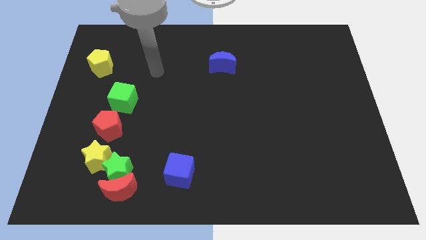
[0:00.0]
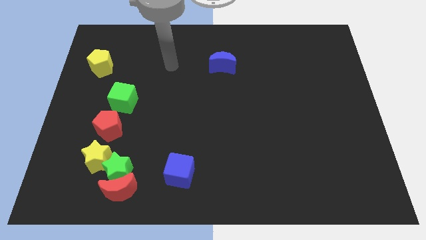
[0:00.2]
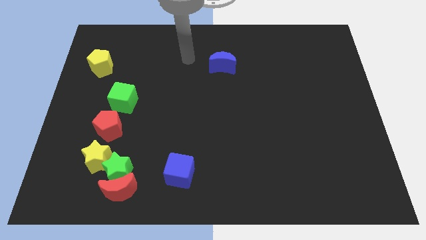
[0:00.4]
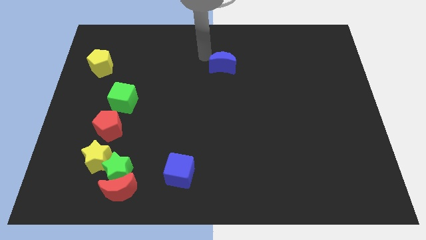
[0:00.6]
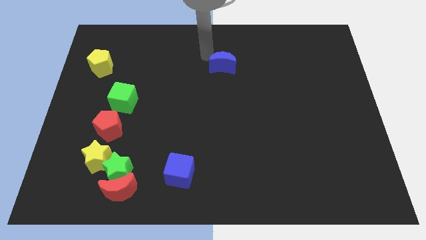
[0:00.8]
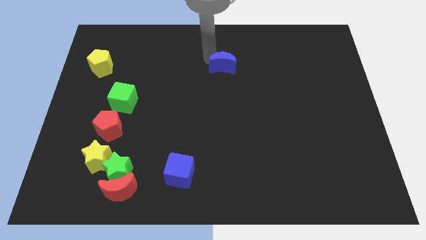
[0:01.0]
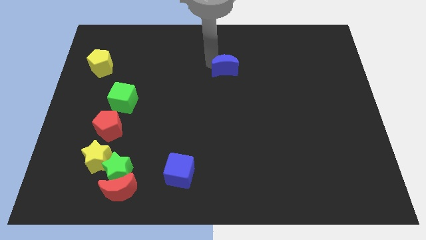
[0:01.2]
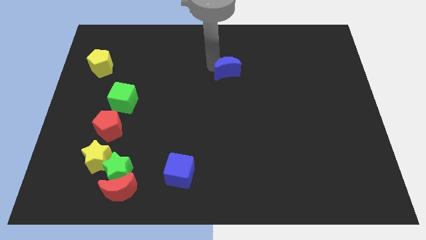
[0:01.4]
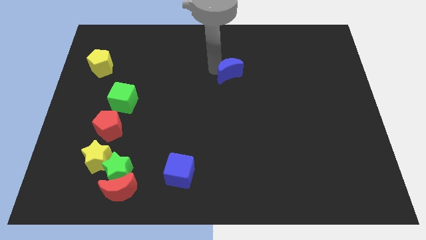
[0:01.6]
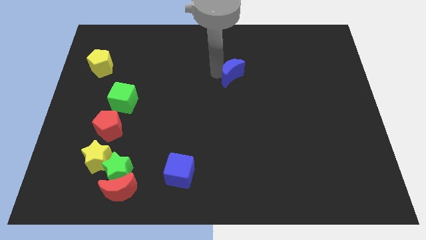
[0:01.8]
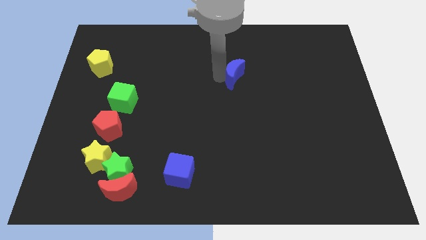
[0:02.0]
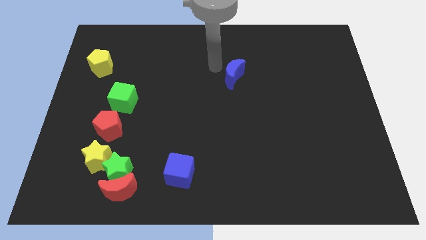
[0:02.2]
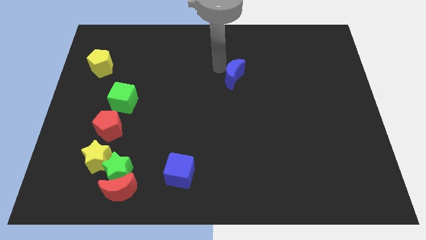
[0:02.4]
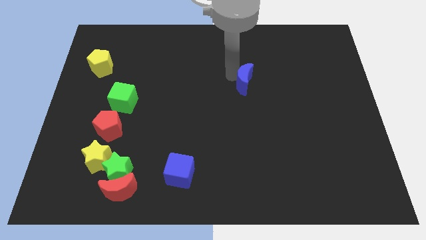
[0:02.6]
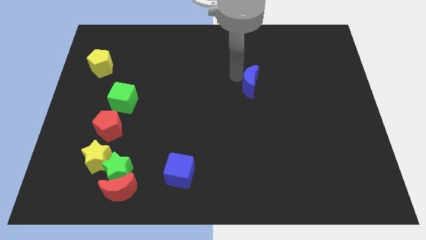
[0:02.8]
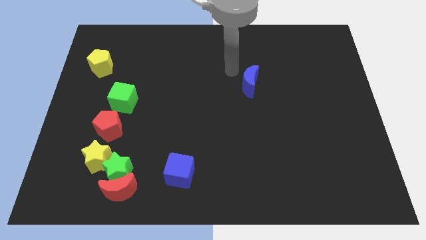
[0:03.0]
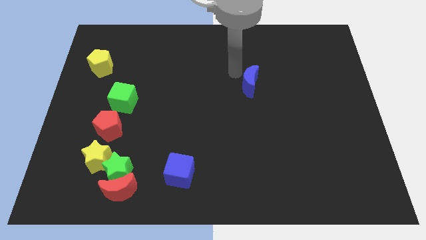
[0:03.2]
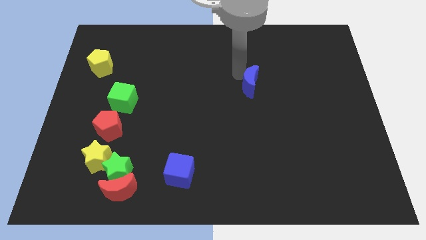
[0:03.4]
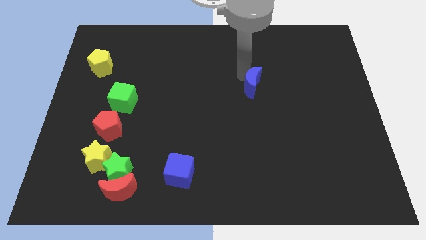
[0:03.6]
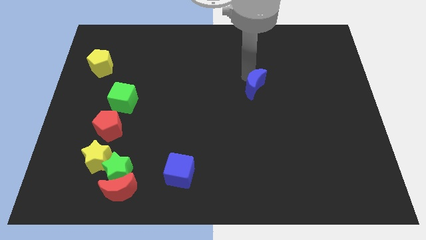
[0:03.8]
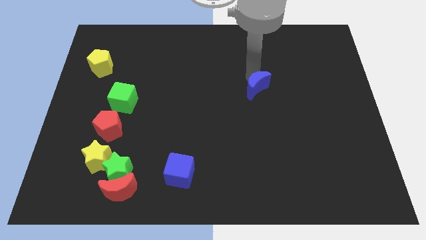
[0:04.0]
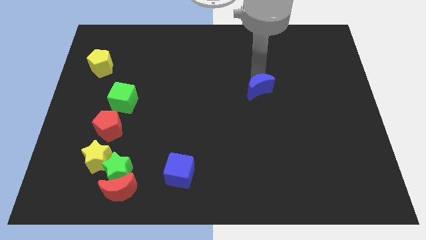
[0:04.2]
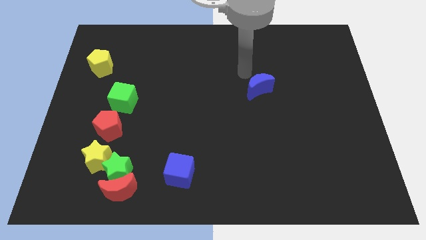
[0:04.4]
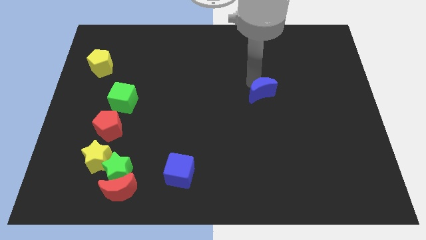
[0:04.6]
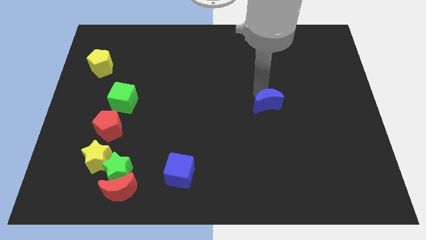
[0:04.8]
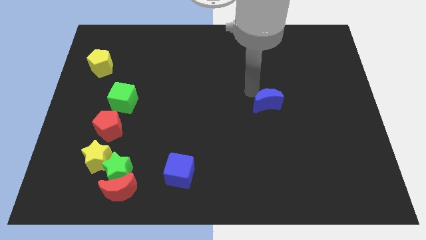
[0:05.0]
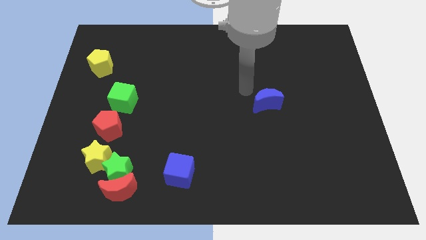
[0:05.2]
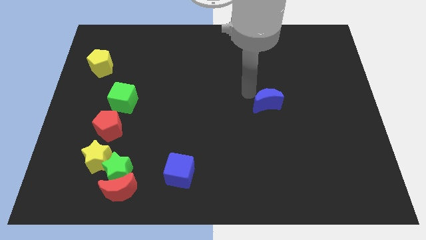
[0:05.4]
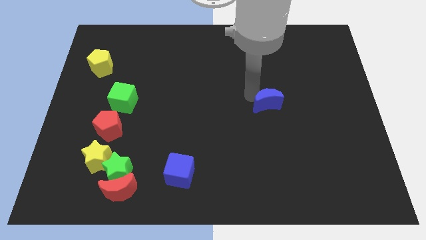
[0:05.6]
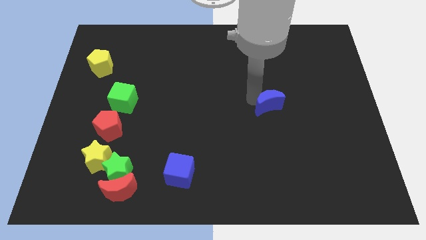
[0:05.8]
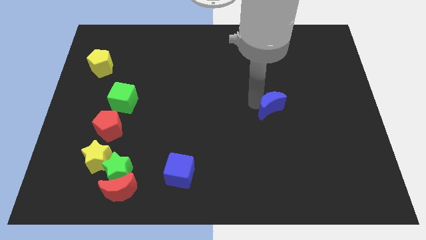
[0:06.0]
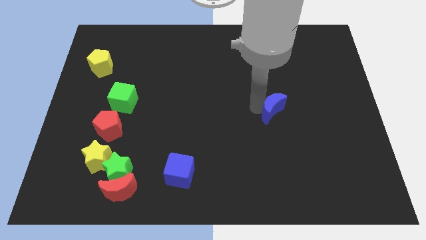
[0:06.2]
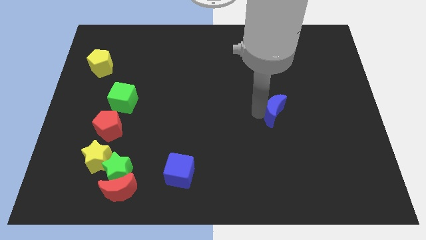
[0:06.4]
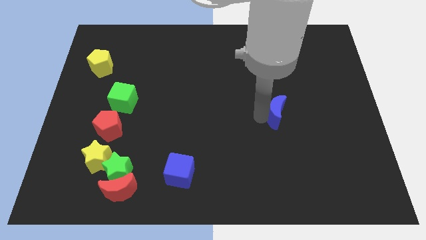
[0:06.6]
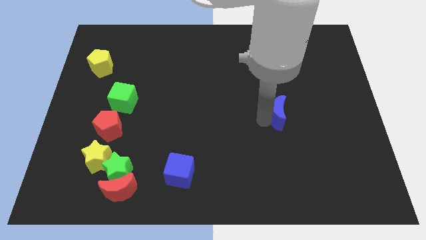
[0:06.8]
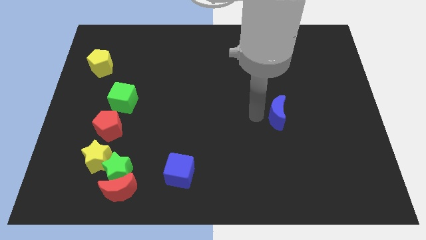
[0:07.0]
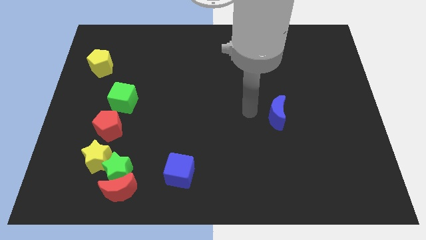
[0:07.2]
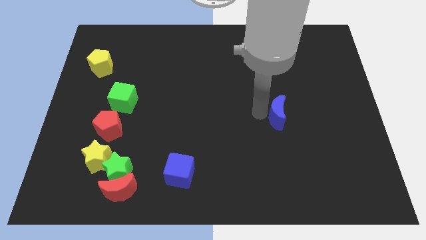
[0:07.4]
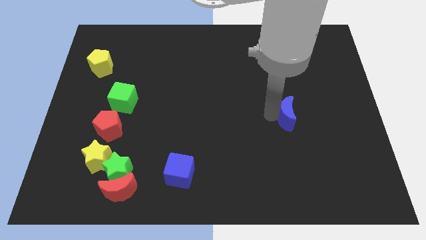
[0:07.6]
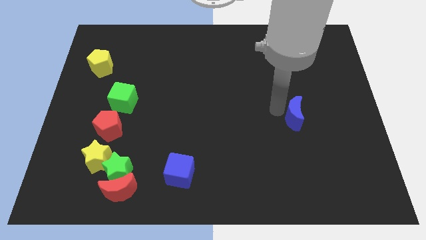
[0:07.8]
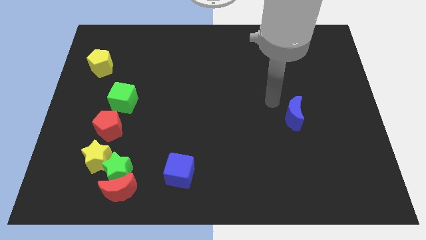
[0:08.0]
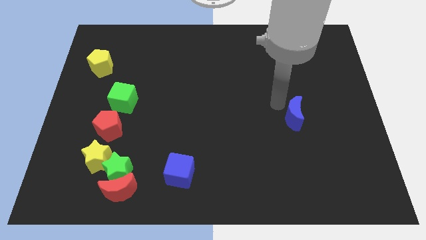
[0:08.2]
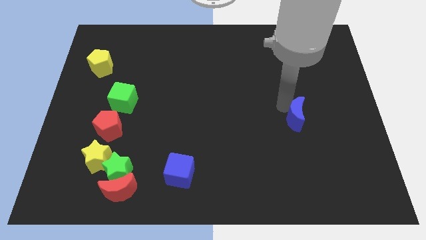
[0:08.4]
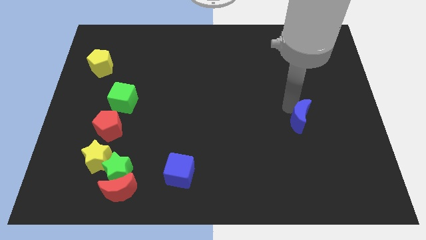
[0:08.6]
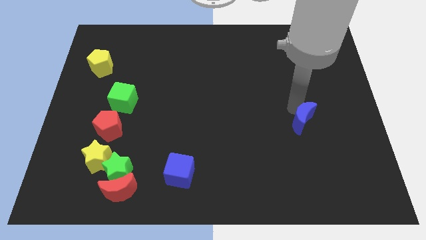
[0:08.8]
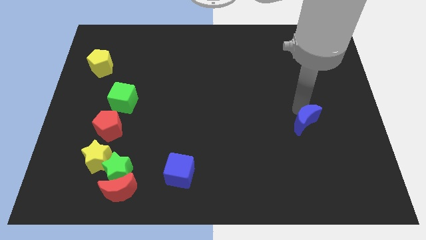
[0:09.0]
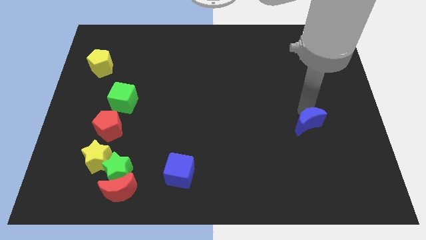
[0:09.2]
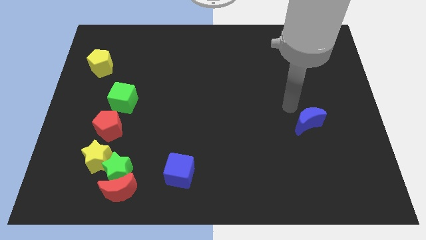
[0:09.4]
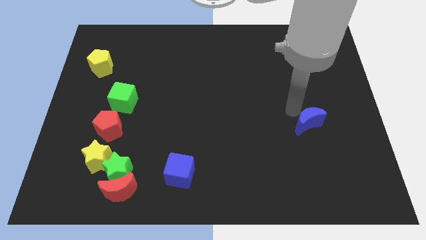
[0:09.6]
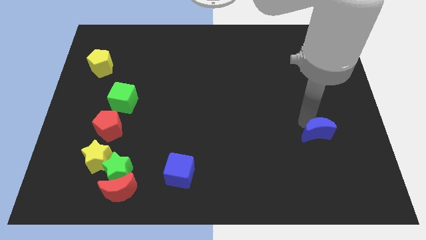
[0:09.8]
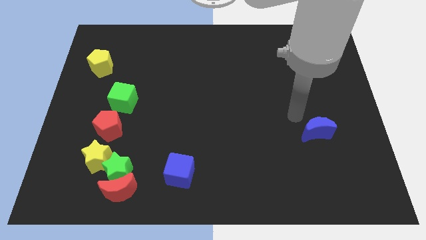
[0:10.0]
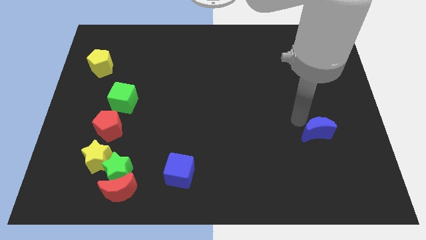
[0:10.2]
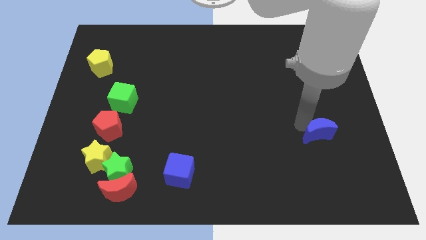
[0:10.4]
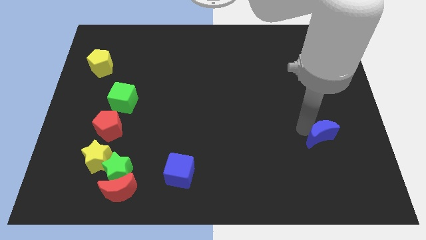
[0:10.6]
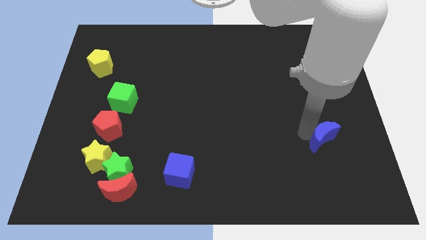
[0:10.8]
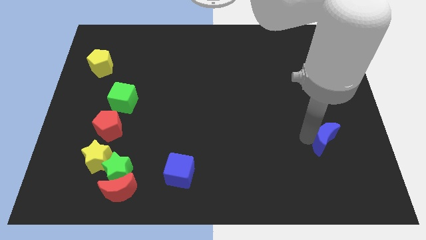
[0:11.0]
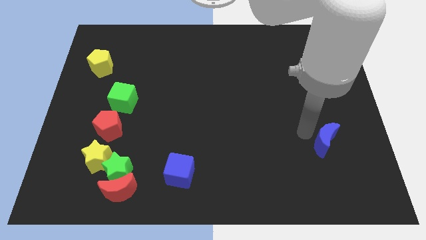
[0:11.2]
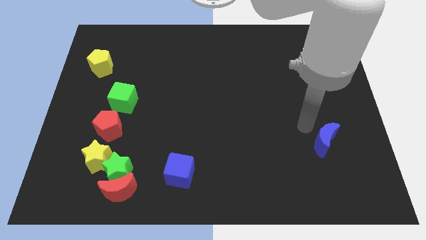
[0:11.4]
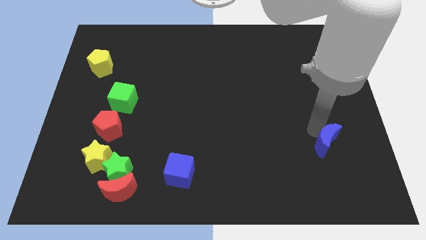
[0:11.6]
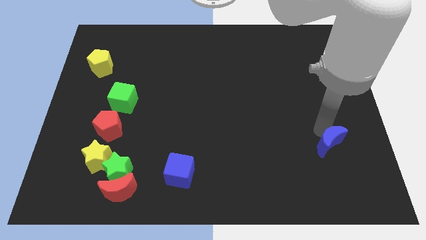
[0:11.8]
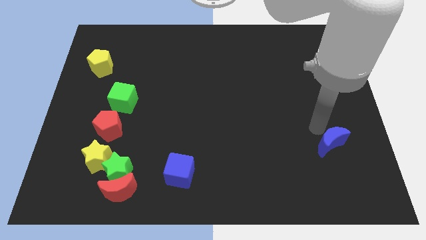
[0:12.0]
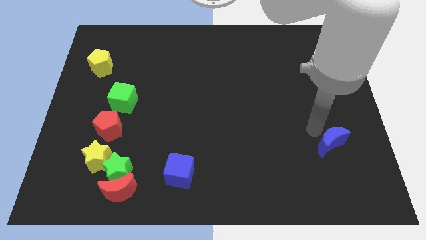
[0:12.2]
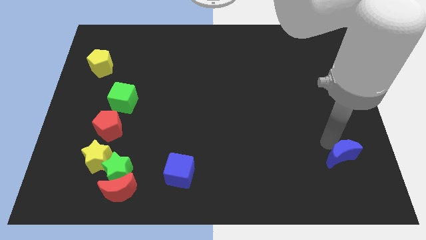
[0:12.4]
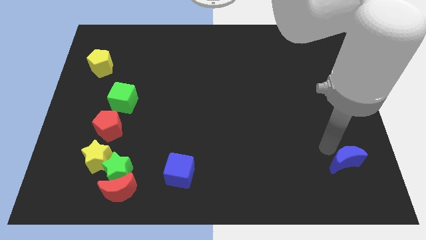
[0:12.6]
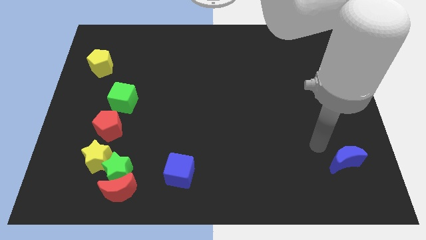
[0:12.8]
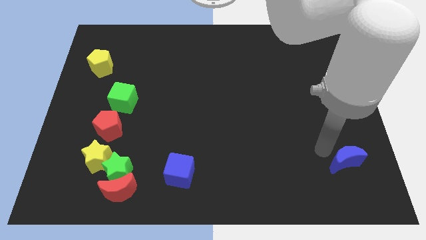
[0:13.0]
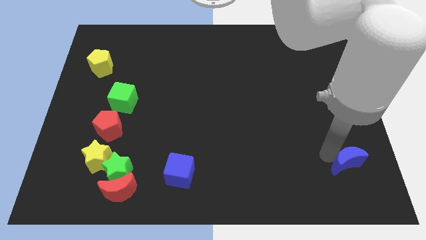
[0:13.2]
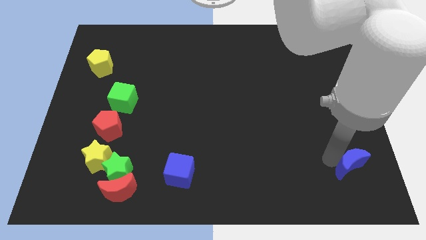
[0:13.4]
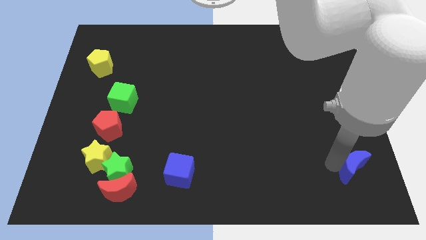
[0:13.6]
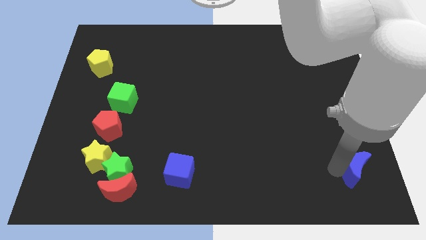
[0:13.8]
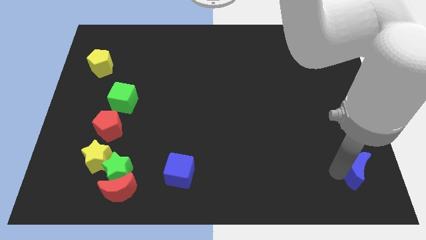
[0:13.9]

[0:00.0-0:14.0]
push the blue moon to the bottom right corner
